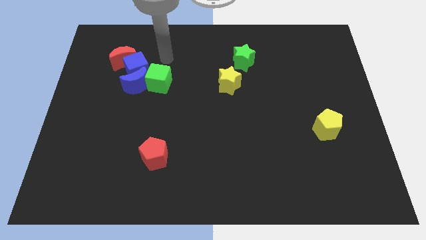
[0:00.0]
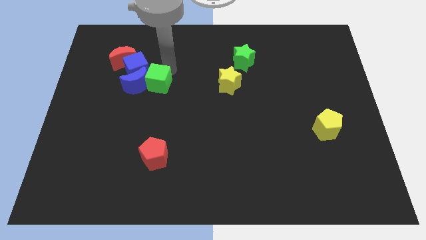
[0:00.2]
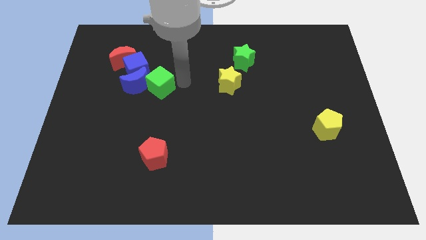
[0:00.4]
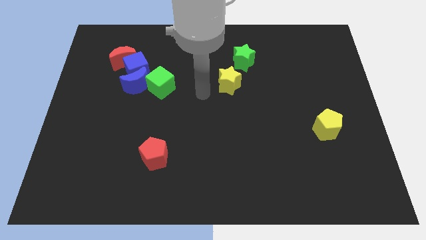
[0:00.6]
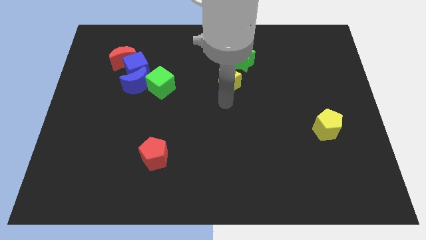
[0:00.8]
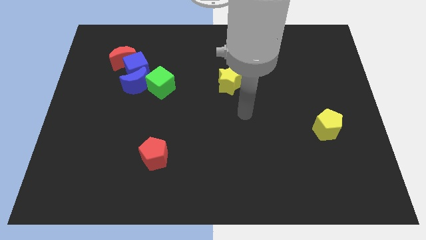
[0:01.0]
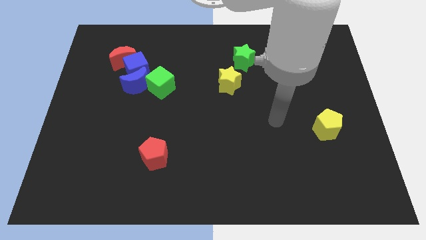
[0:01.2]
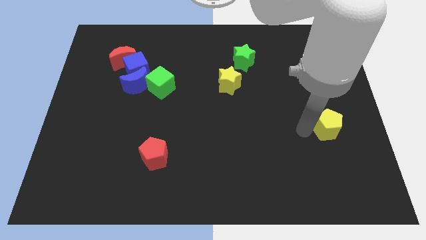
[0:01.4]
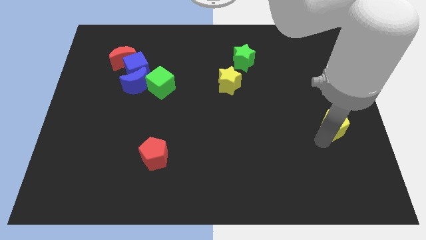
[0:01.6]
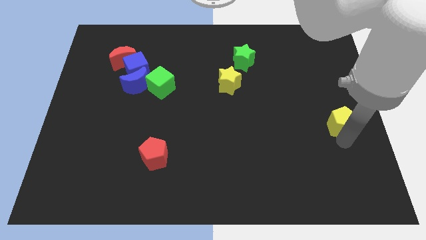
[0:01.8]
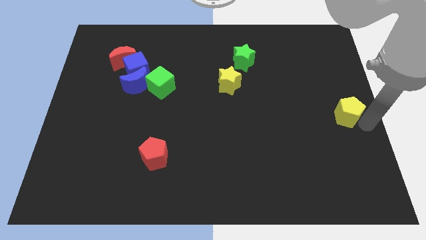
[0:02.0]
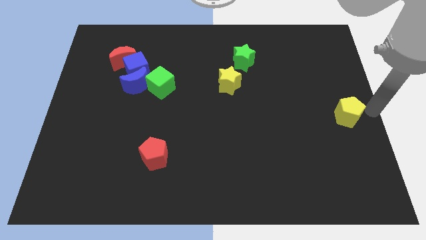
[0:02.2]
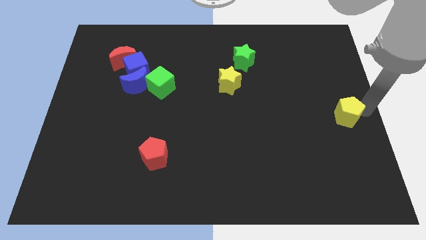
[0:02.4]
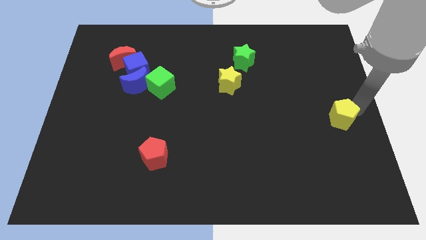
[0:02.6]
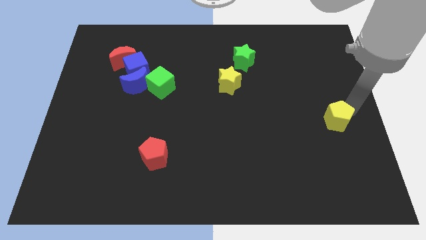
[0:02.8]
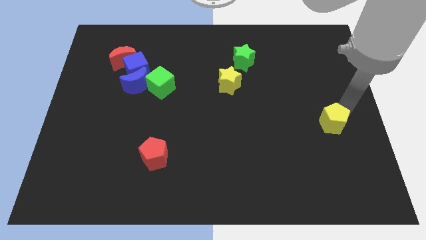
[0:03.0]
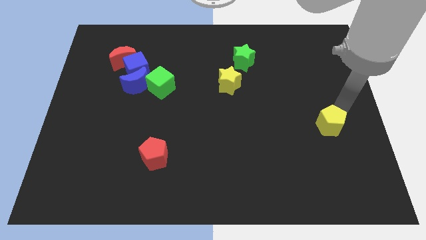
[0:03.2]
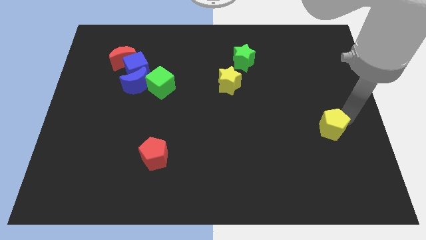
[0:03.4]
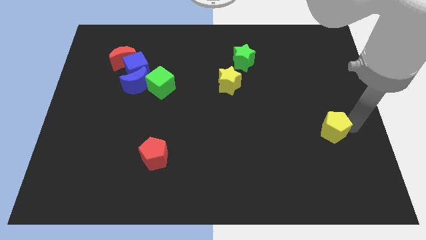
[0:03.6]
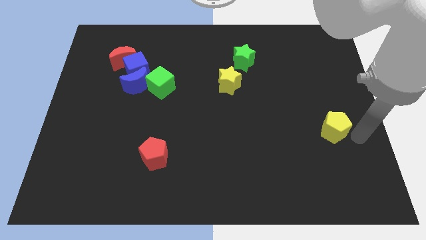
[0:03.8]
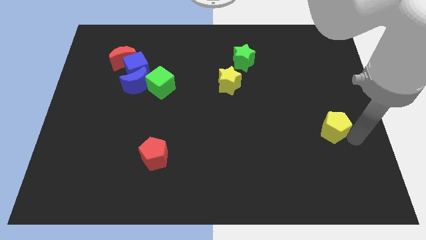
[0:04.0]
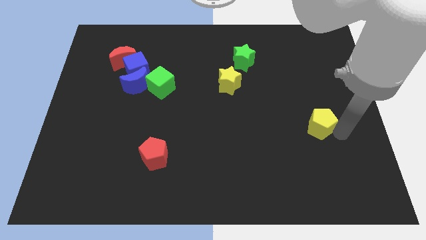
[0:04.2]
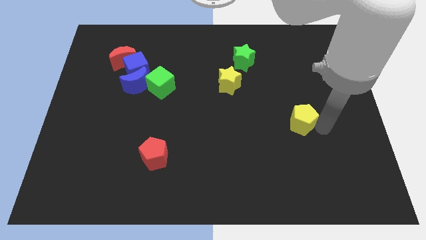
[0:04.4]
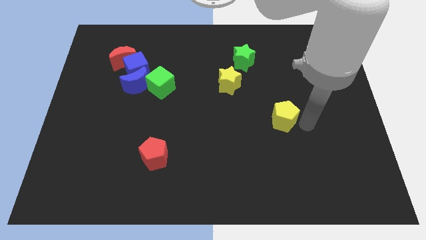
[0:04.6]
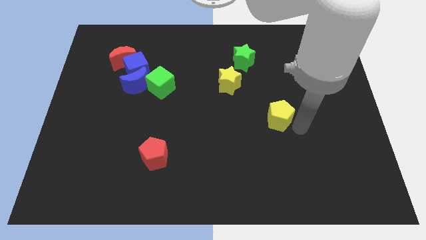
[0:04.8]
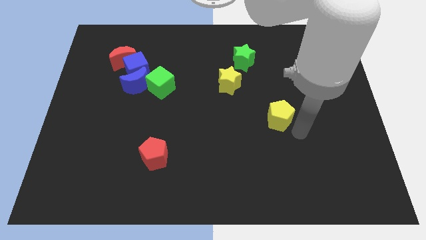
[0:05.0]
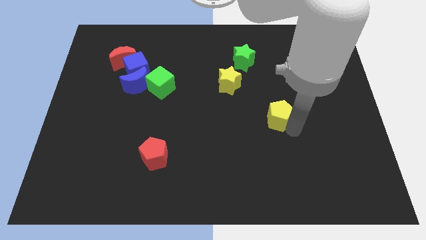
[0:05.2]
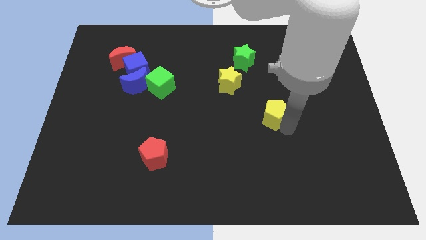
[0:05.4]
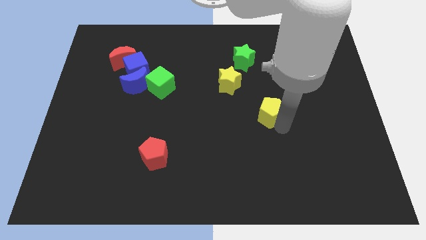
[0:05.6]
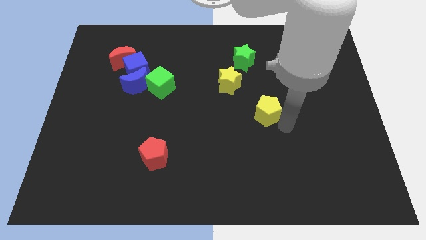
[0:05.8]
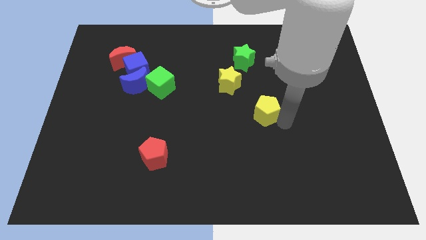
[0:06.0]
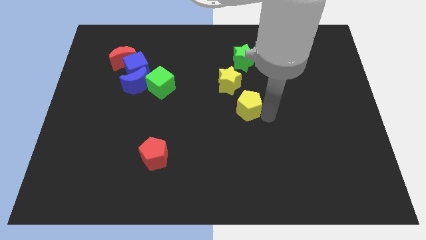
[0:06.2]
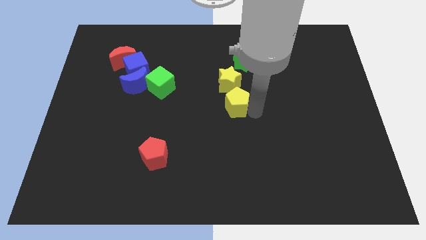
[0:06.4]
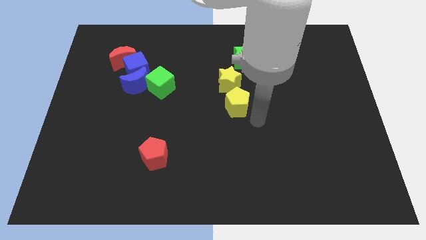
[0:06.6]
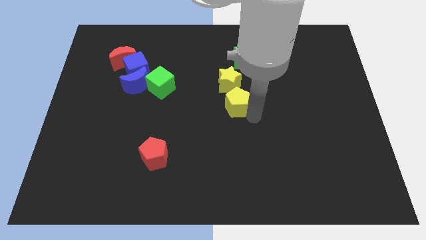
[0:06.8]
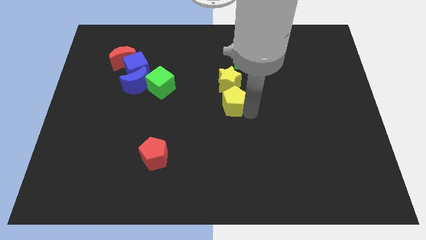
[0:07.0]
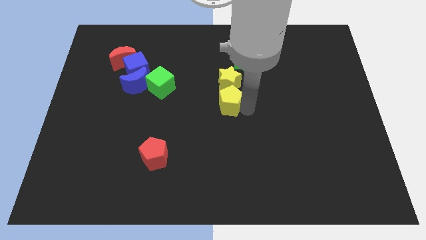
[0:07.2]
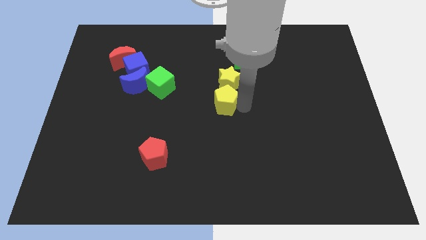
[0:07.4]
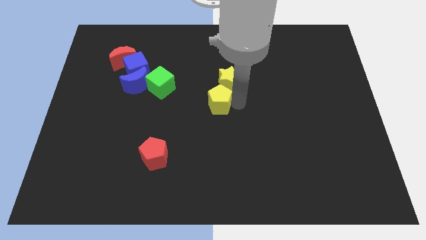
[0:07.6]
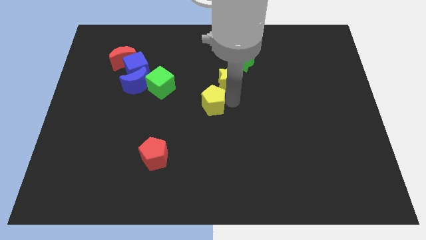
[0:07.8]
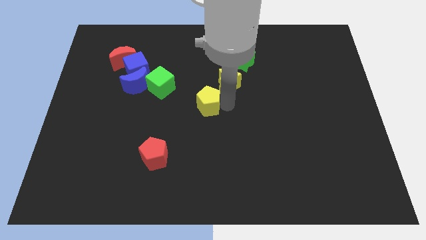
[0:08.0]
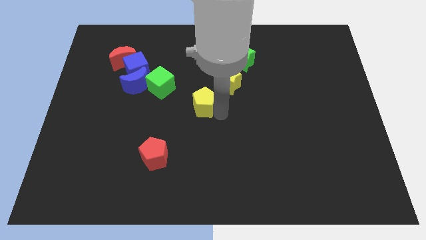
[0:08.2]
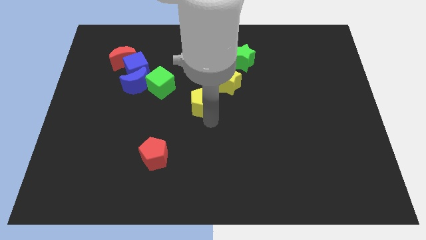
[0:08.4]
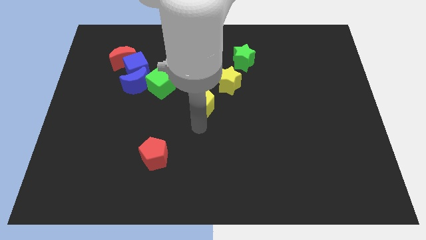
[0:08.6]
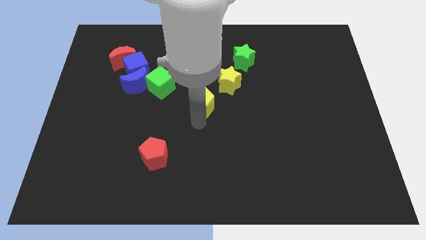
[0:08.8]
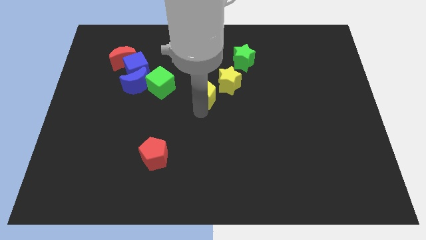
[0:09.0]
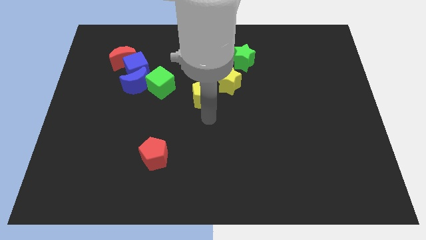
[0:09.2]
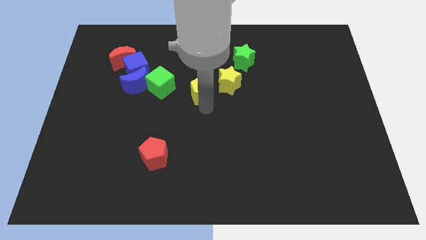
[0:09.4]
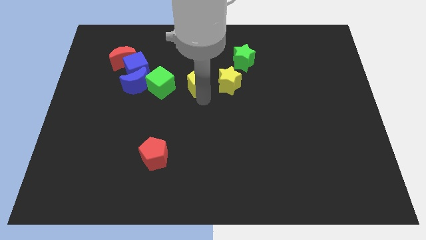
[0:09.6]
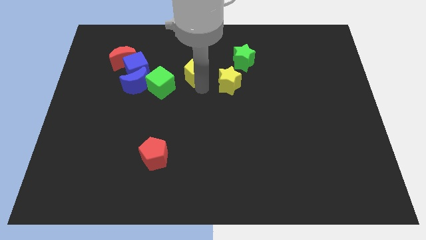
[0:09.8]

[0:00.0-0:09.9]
push the yellow pentagon diagonally up and to the right of the green cube

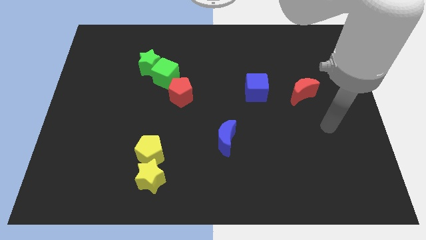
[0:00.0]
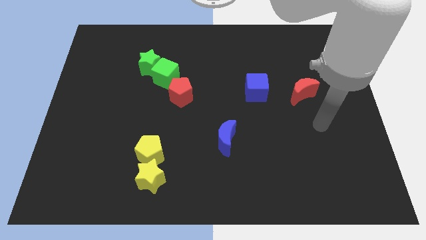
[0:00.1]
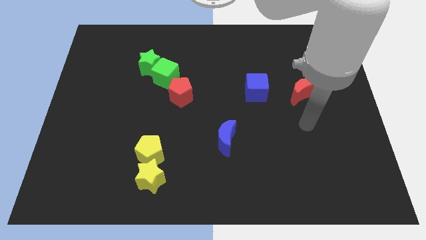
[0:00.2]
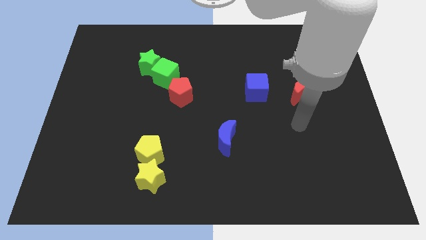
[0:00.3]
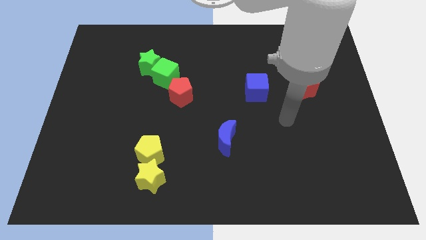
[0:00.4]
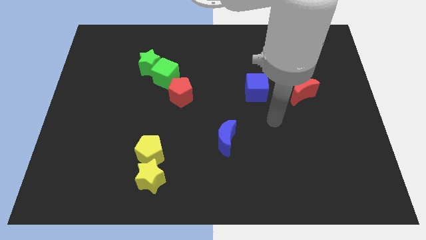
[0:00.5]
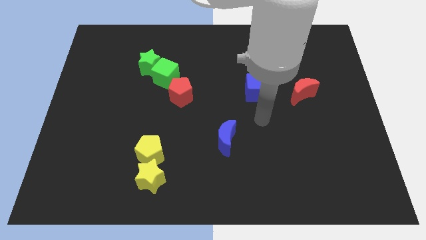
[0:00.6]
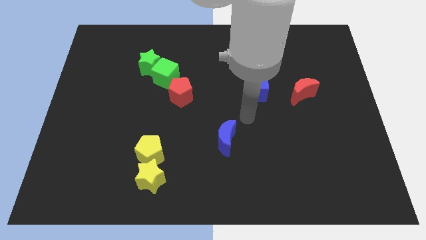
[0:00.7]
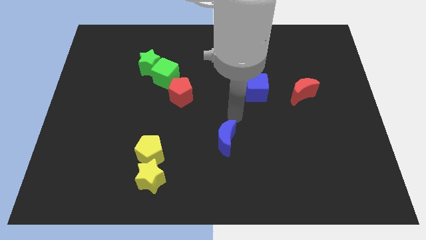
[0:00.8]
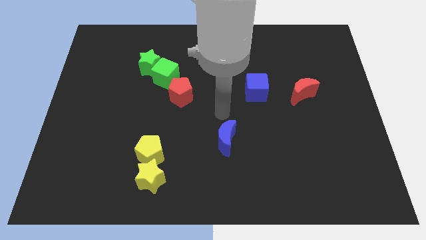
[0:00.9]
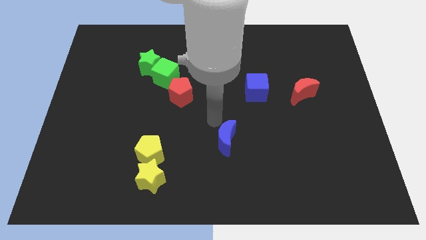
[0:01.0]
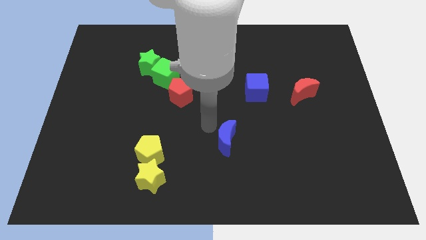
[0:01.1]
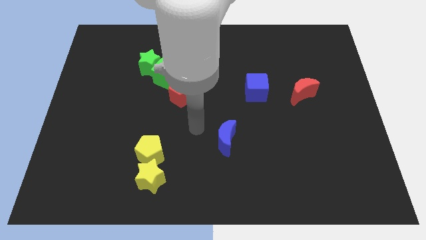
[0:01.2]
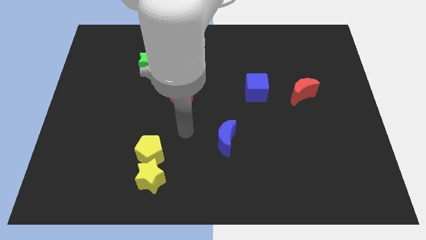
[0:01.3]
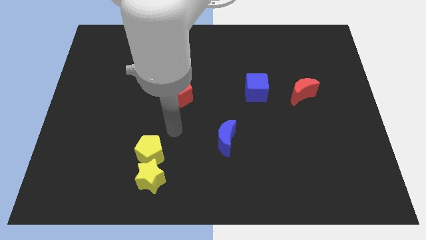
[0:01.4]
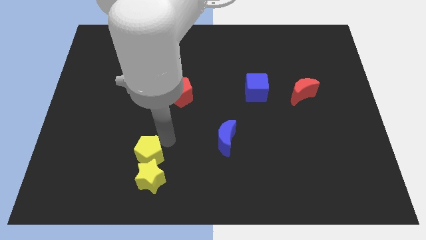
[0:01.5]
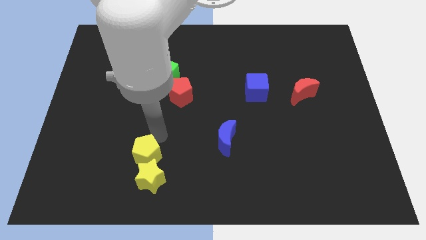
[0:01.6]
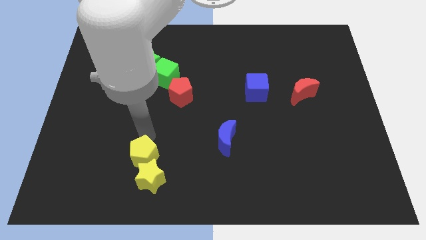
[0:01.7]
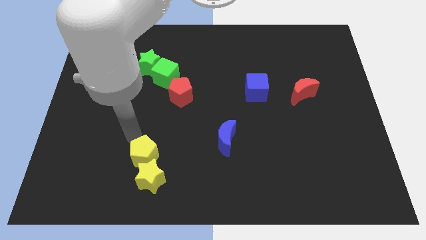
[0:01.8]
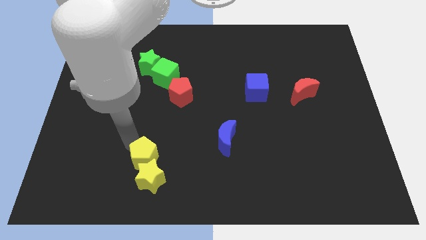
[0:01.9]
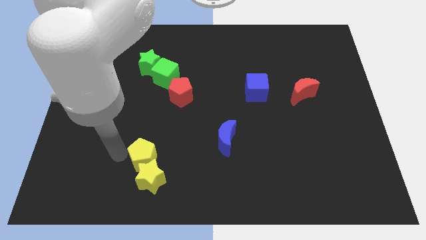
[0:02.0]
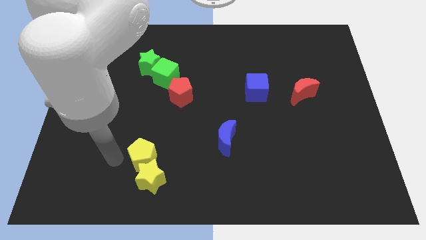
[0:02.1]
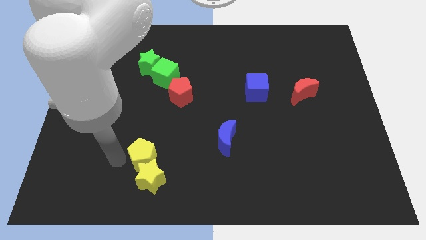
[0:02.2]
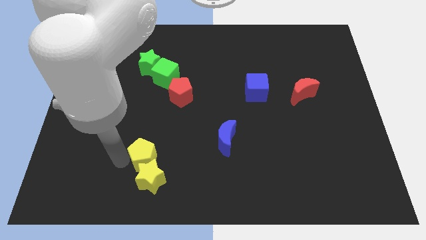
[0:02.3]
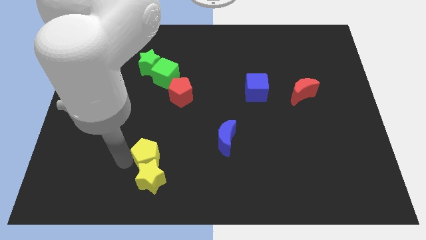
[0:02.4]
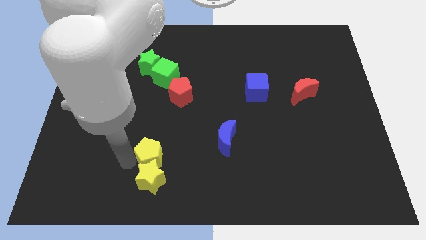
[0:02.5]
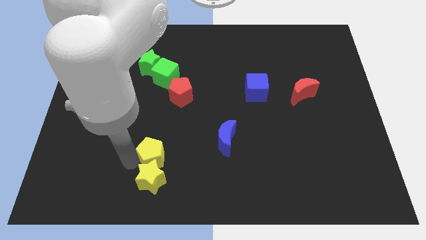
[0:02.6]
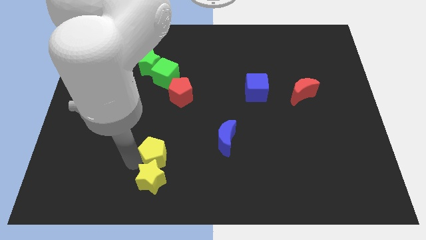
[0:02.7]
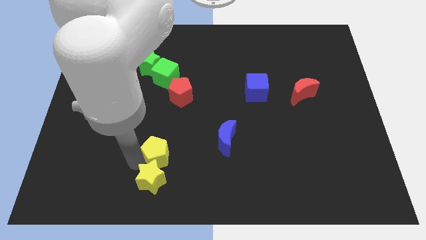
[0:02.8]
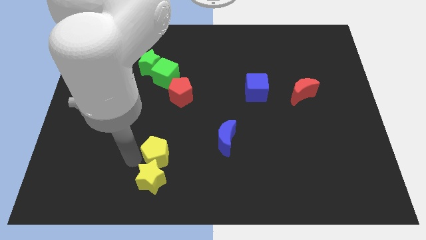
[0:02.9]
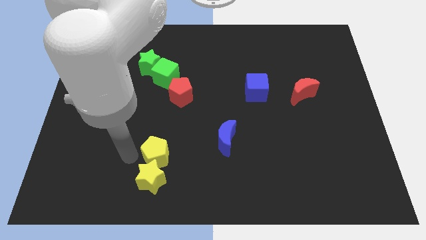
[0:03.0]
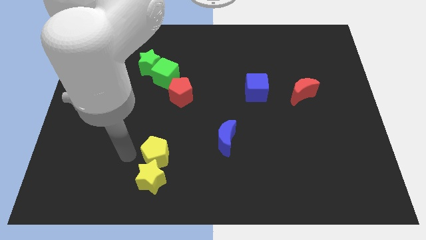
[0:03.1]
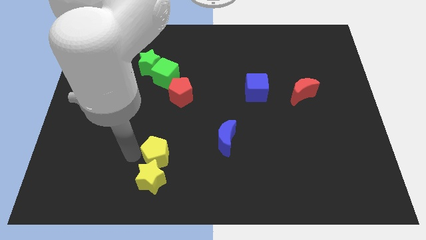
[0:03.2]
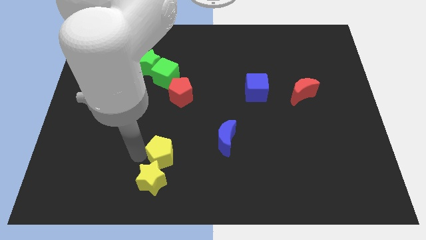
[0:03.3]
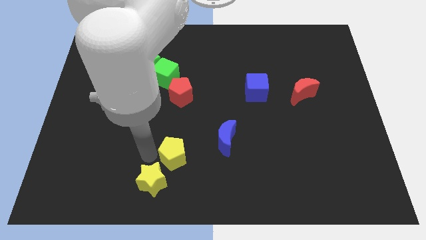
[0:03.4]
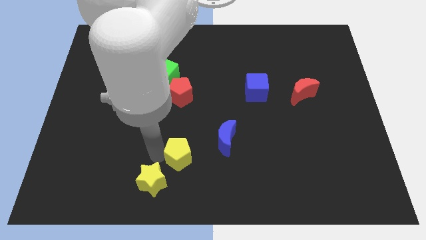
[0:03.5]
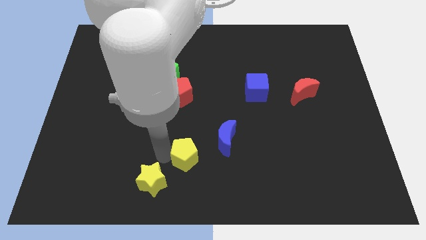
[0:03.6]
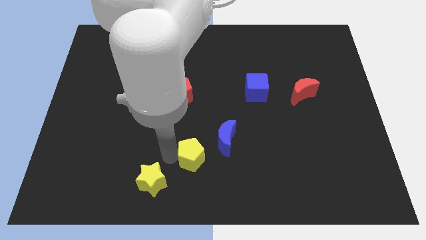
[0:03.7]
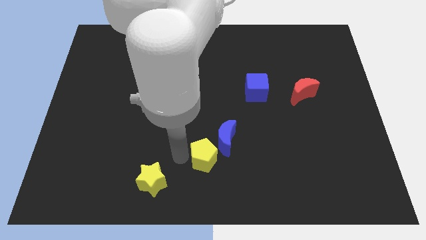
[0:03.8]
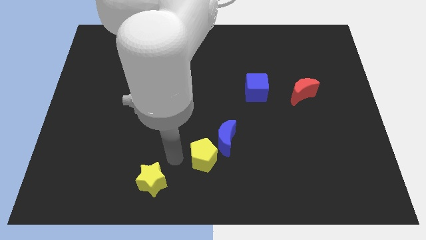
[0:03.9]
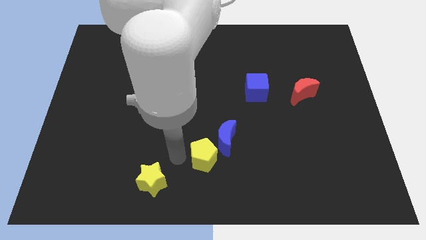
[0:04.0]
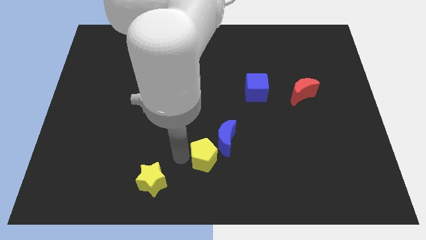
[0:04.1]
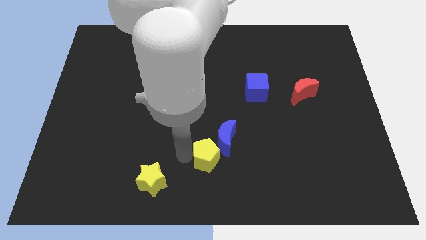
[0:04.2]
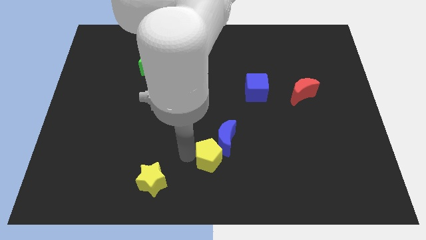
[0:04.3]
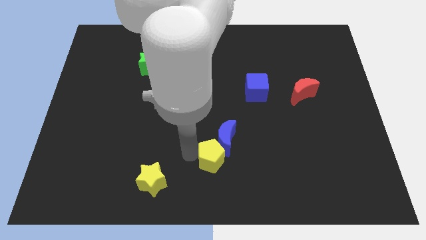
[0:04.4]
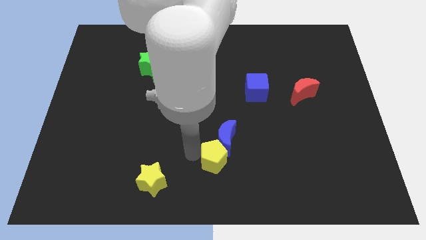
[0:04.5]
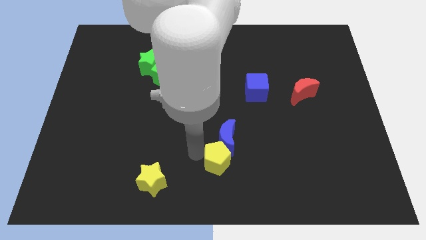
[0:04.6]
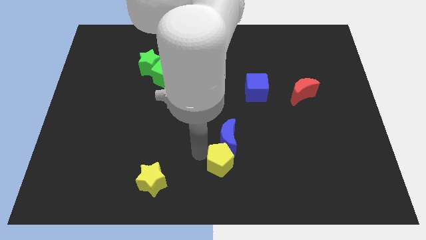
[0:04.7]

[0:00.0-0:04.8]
slide the yellow pentagon to the bottom right of the blue moon
